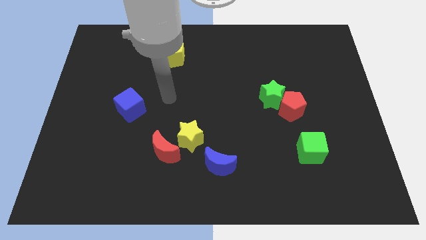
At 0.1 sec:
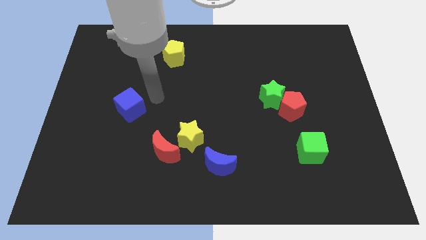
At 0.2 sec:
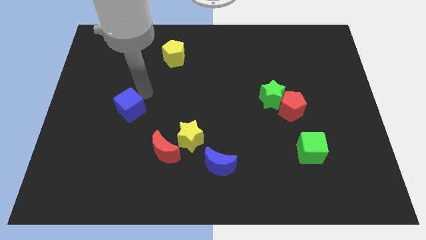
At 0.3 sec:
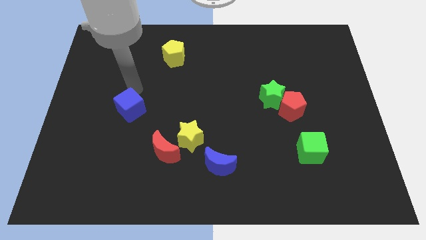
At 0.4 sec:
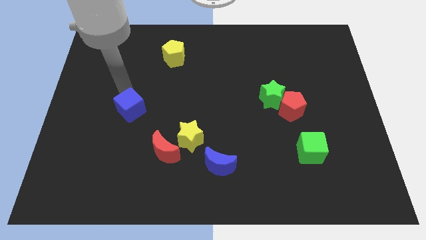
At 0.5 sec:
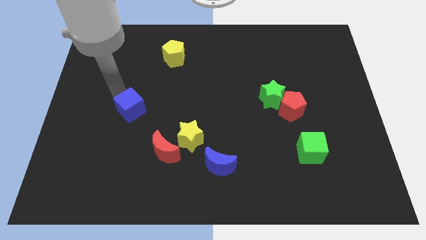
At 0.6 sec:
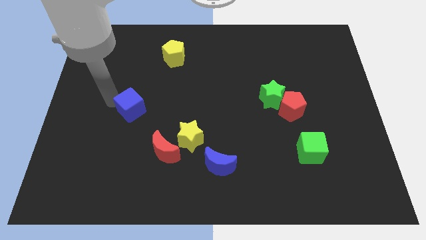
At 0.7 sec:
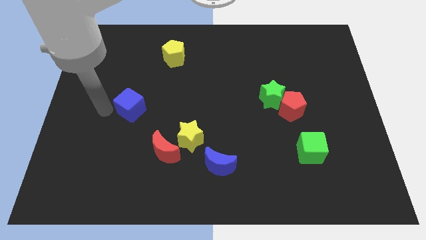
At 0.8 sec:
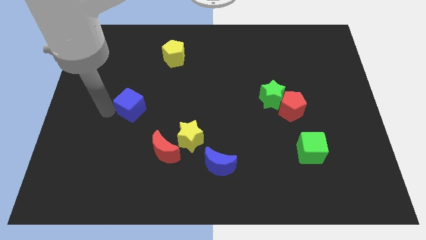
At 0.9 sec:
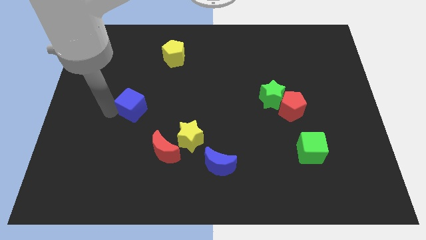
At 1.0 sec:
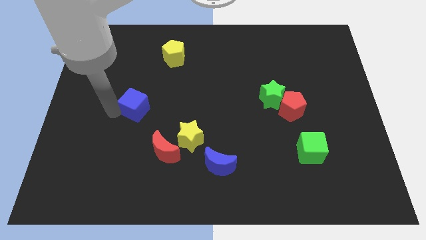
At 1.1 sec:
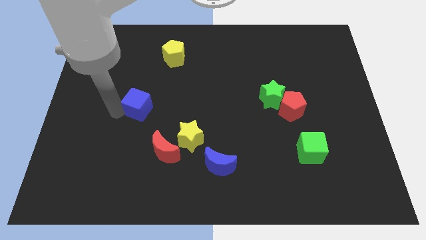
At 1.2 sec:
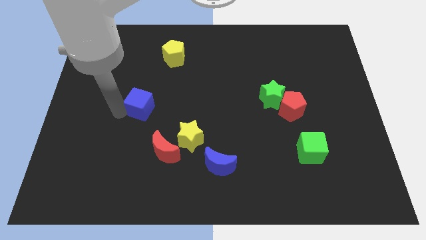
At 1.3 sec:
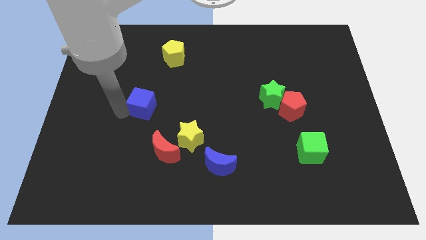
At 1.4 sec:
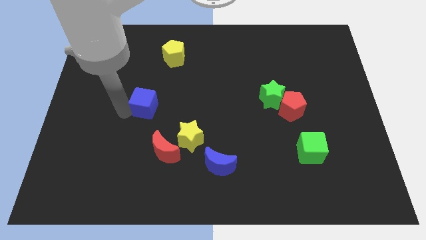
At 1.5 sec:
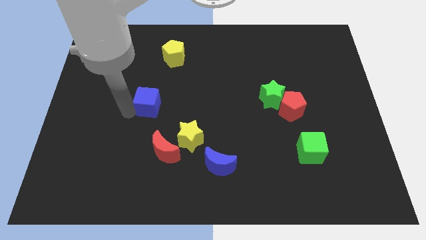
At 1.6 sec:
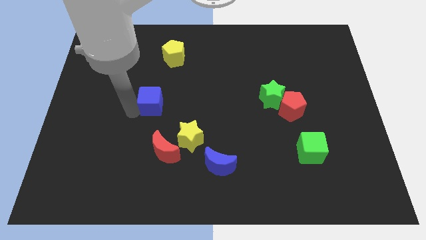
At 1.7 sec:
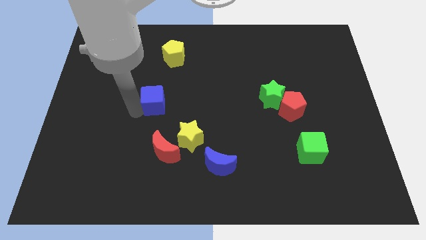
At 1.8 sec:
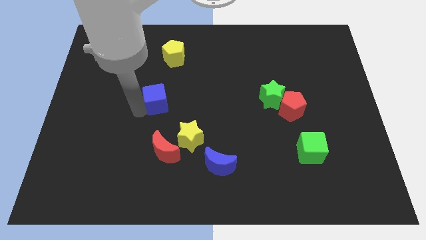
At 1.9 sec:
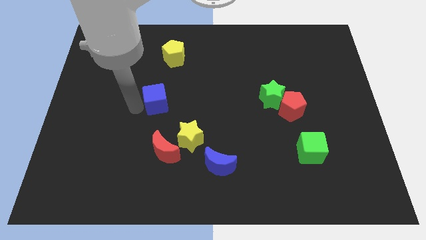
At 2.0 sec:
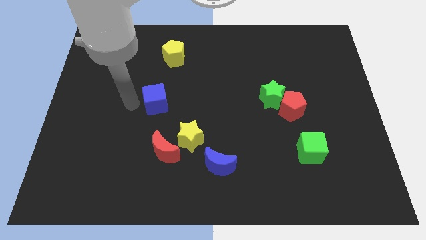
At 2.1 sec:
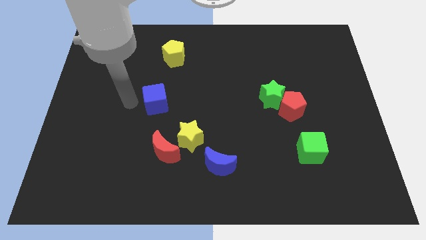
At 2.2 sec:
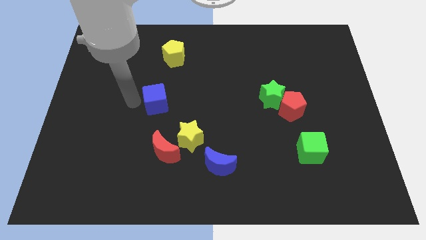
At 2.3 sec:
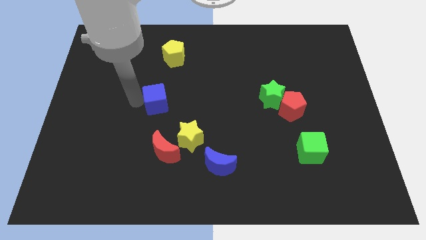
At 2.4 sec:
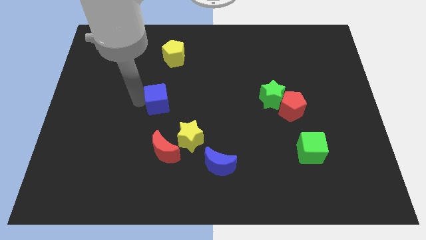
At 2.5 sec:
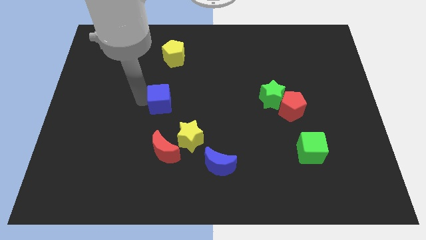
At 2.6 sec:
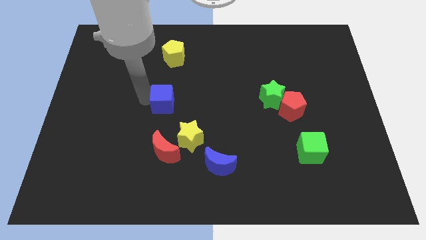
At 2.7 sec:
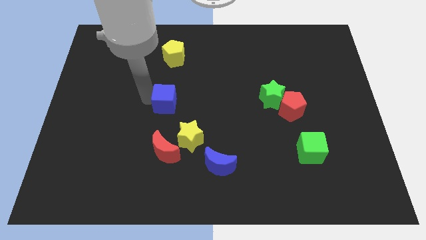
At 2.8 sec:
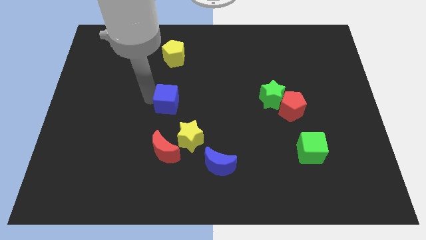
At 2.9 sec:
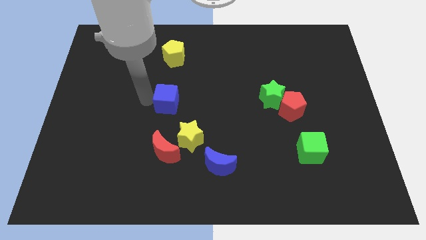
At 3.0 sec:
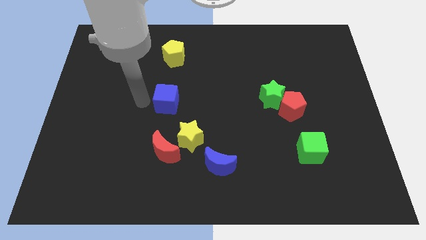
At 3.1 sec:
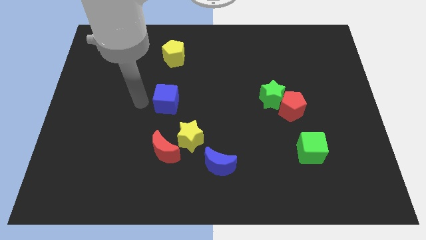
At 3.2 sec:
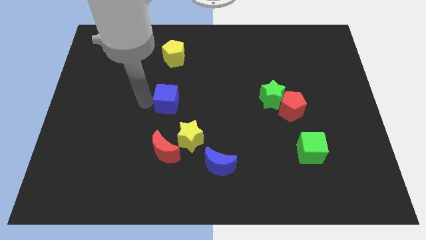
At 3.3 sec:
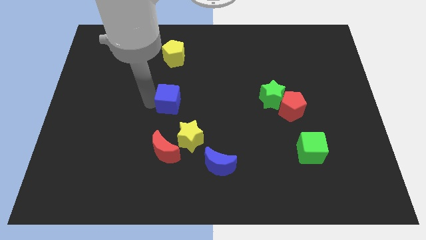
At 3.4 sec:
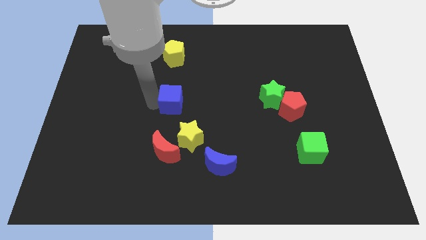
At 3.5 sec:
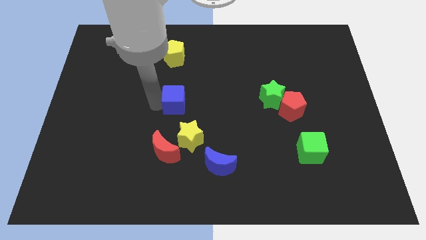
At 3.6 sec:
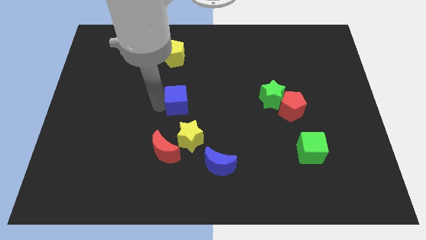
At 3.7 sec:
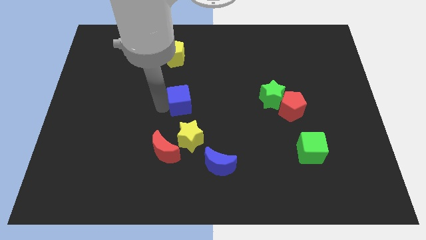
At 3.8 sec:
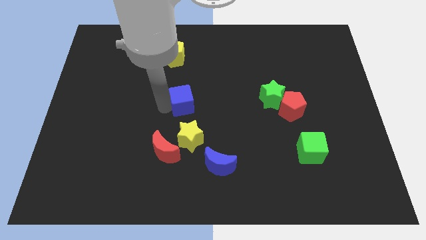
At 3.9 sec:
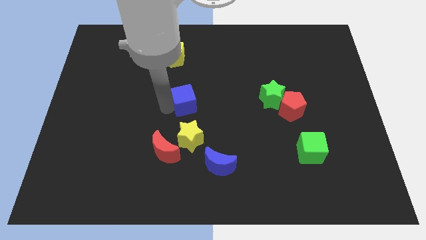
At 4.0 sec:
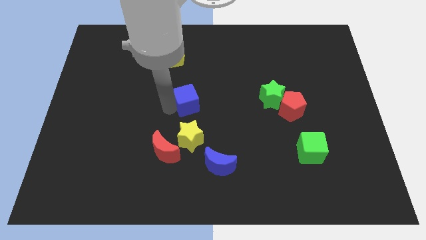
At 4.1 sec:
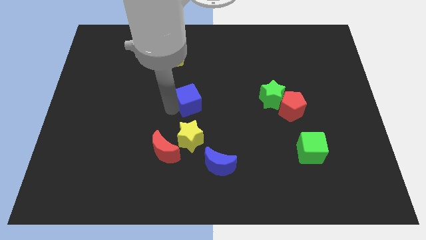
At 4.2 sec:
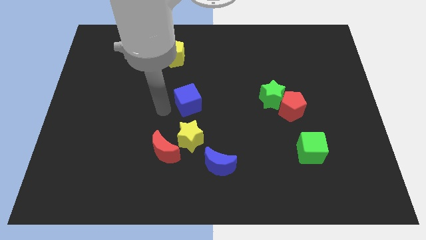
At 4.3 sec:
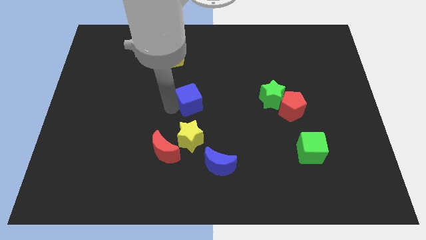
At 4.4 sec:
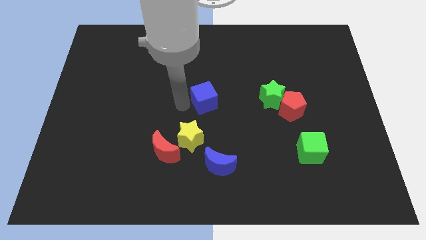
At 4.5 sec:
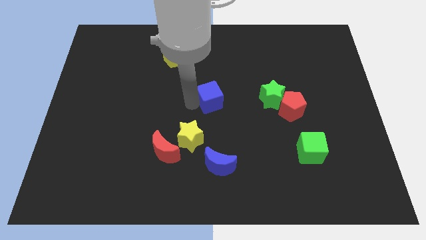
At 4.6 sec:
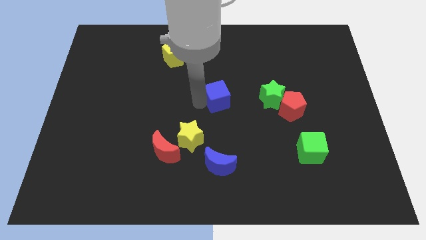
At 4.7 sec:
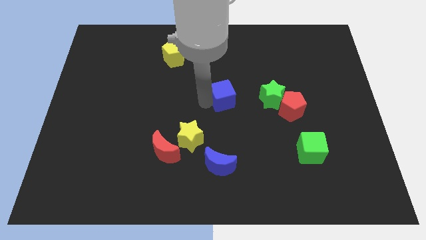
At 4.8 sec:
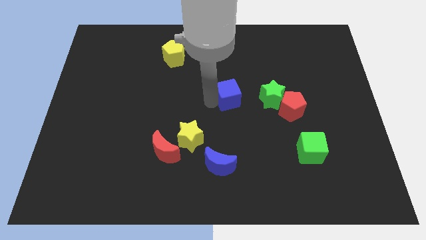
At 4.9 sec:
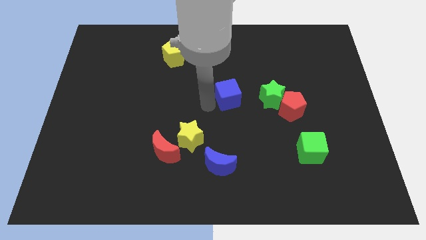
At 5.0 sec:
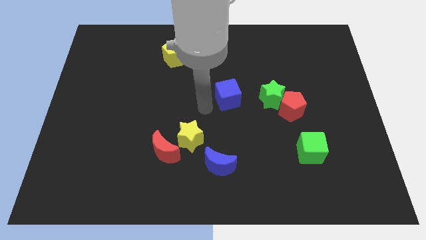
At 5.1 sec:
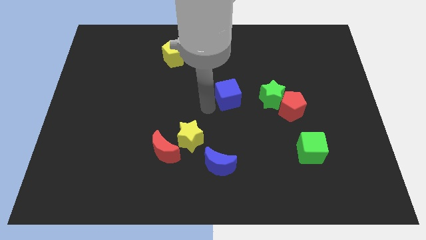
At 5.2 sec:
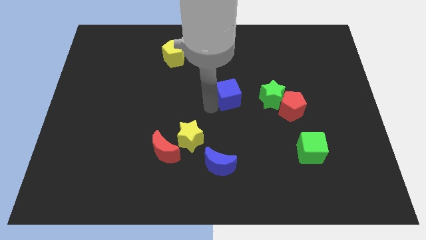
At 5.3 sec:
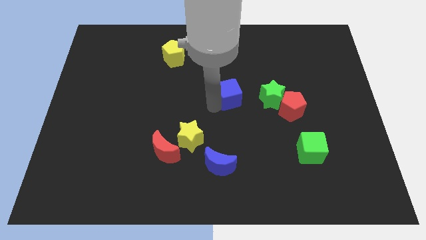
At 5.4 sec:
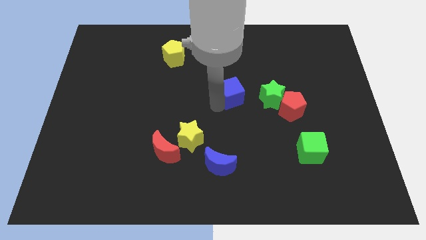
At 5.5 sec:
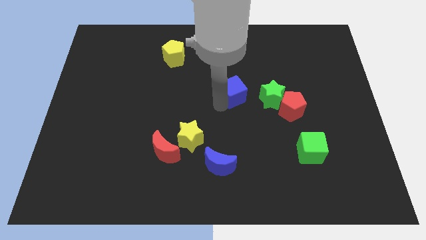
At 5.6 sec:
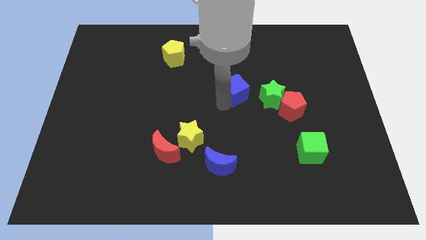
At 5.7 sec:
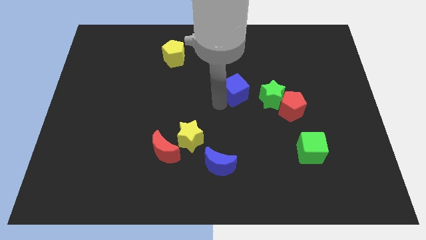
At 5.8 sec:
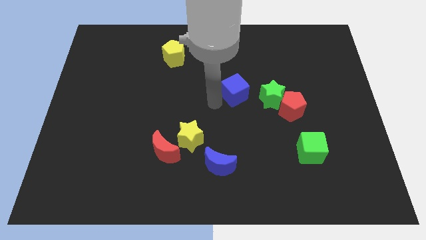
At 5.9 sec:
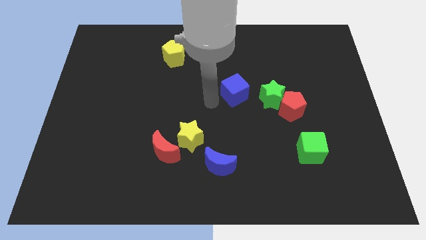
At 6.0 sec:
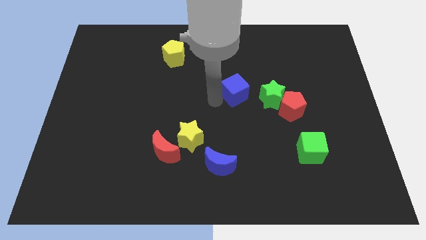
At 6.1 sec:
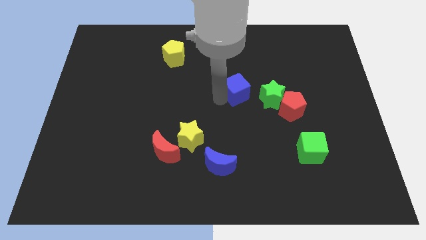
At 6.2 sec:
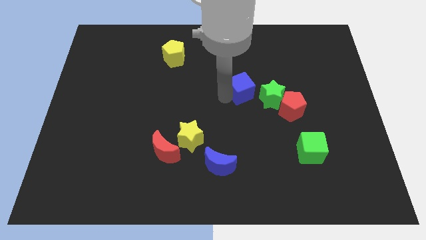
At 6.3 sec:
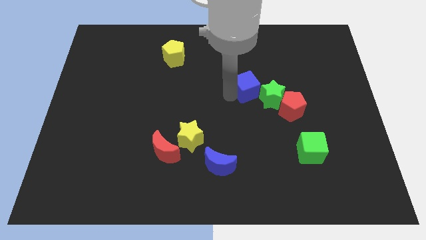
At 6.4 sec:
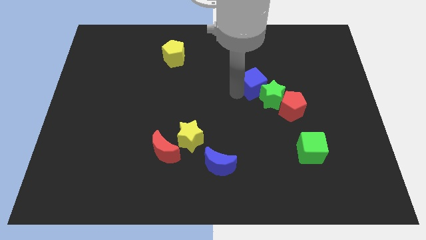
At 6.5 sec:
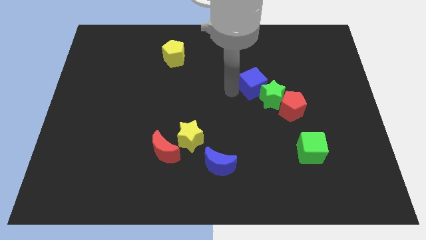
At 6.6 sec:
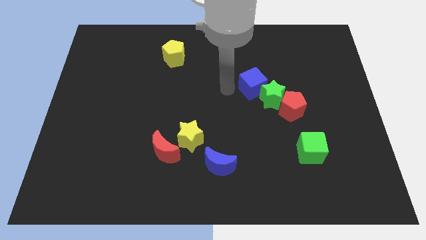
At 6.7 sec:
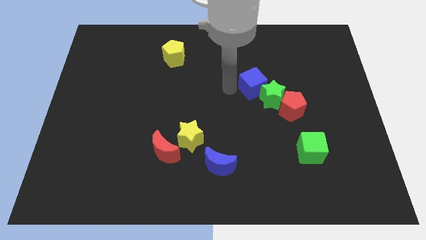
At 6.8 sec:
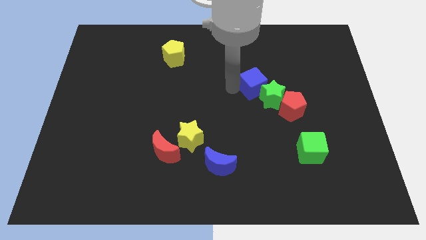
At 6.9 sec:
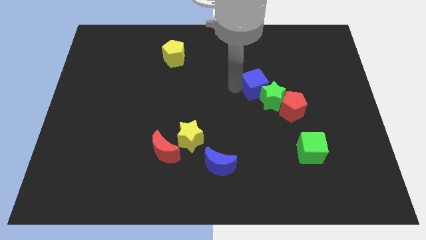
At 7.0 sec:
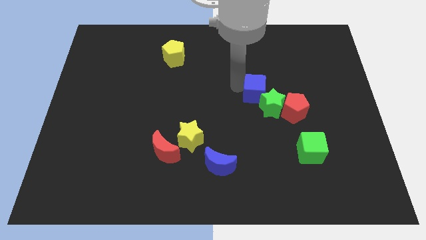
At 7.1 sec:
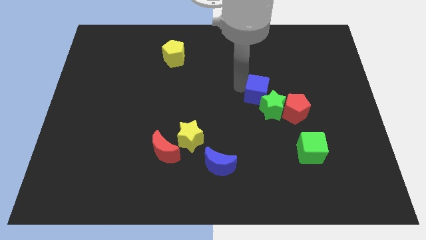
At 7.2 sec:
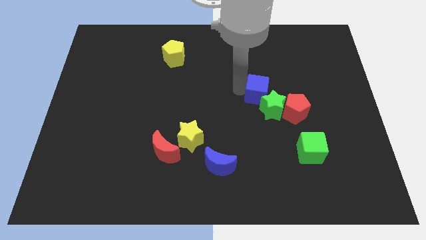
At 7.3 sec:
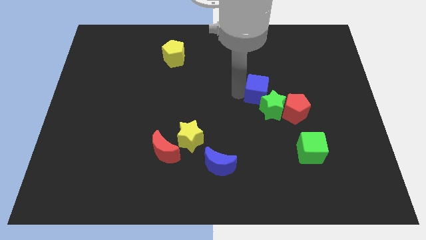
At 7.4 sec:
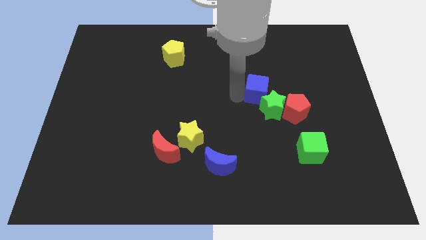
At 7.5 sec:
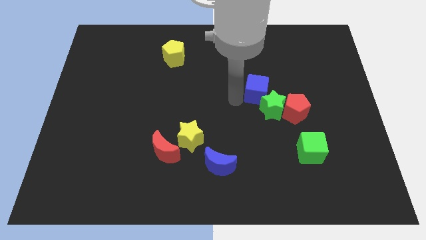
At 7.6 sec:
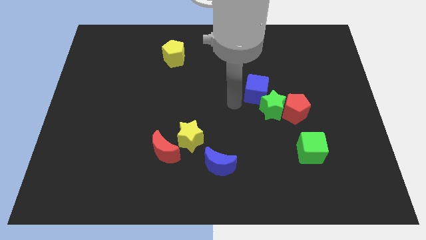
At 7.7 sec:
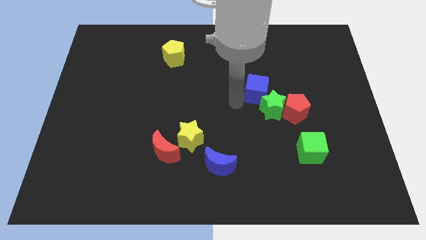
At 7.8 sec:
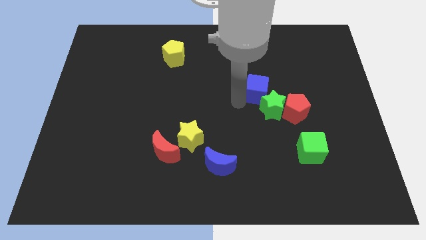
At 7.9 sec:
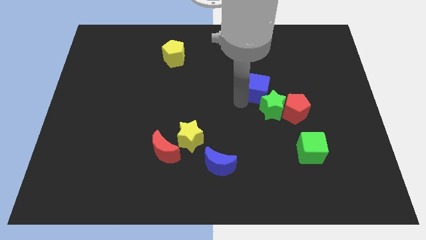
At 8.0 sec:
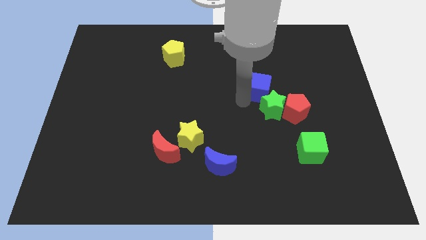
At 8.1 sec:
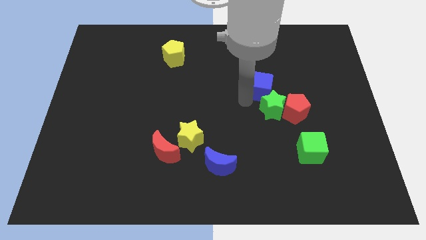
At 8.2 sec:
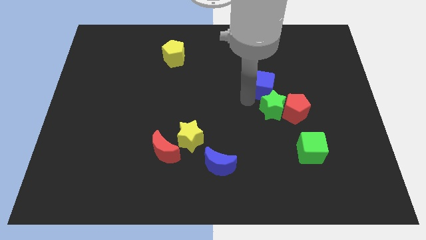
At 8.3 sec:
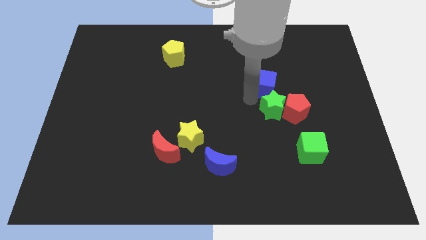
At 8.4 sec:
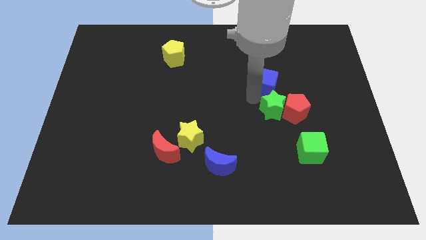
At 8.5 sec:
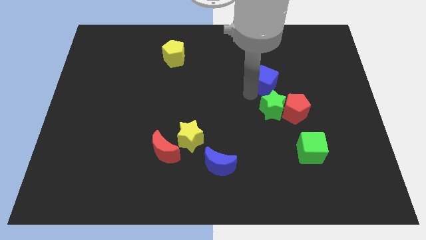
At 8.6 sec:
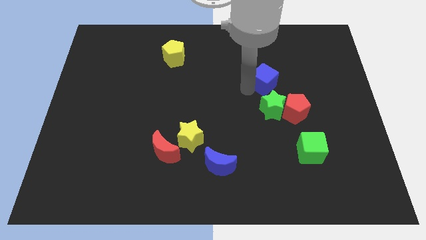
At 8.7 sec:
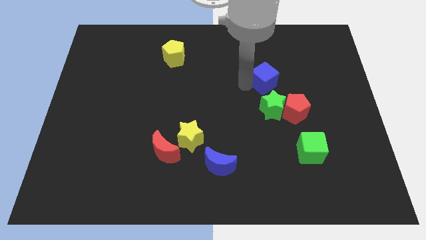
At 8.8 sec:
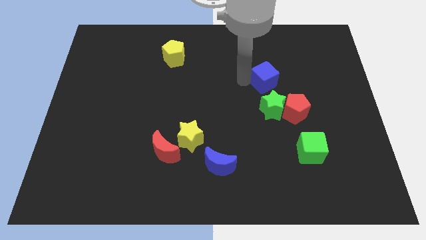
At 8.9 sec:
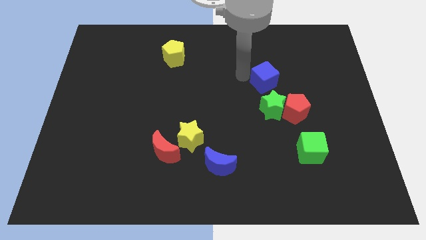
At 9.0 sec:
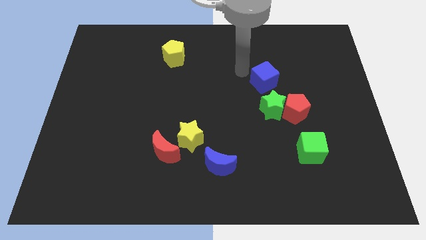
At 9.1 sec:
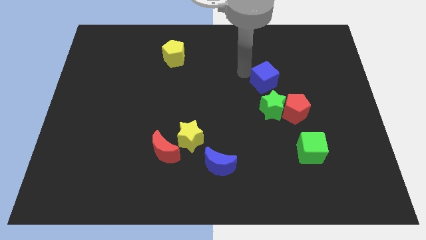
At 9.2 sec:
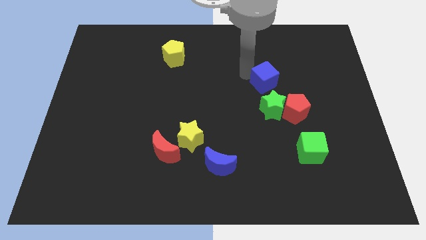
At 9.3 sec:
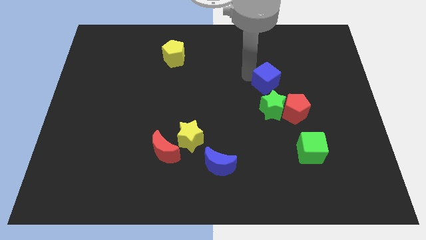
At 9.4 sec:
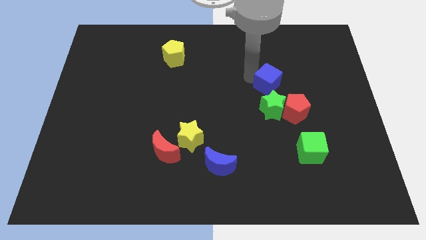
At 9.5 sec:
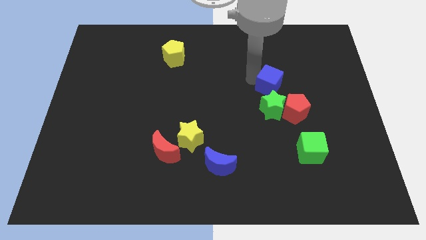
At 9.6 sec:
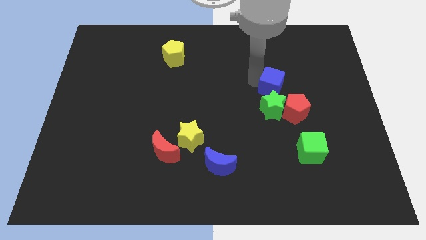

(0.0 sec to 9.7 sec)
slide the blue cube diagonally up and to the right of the green star
